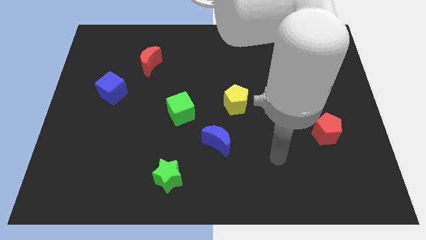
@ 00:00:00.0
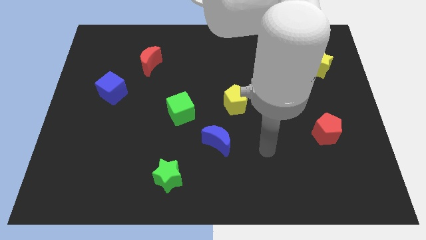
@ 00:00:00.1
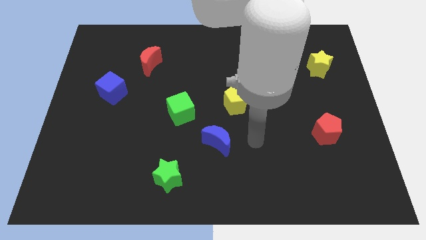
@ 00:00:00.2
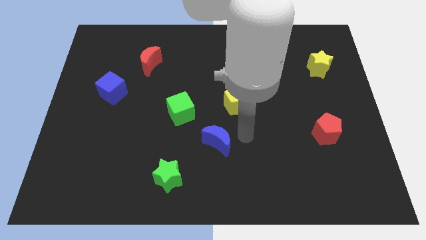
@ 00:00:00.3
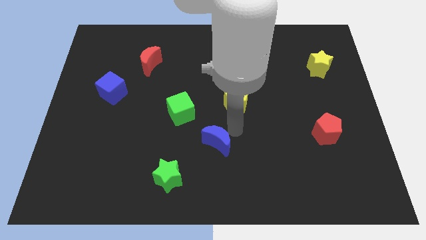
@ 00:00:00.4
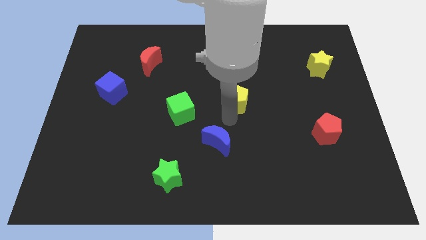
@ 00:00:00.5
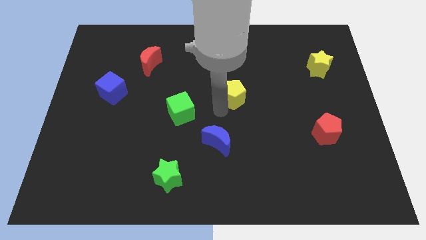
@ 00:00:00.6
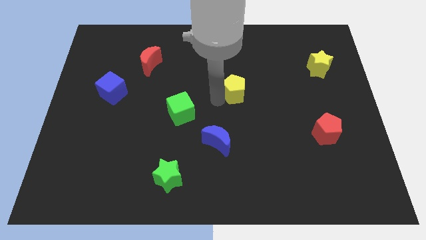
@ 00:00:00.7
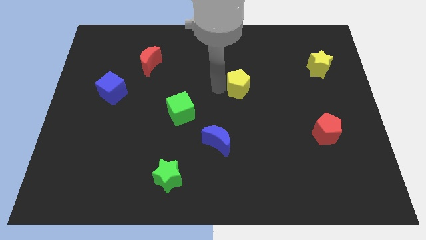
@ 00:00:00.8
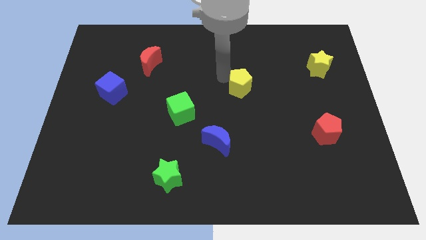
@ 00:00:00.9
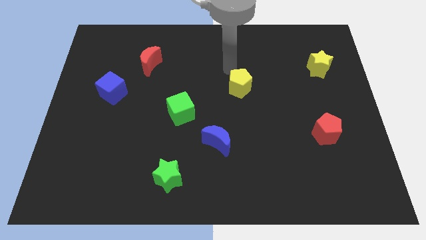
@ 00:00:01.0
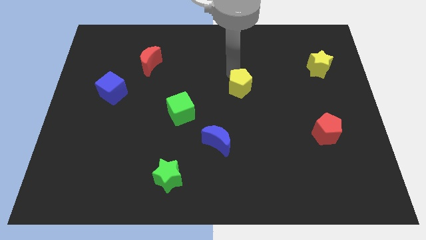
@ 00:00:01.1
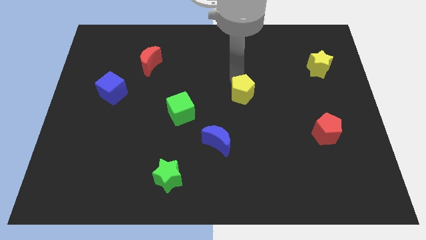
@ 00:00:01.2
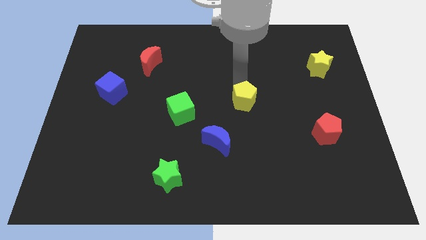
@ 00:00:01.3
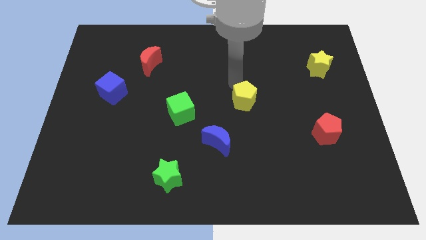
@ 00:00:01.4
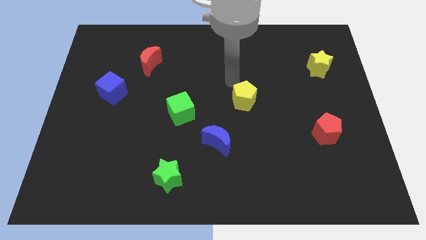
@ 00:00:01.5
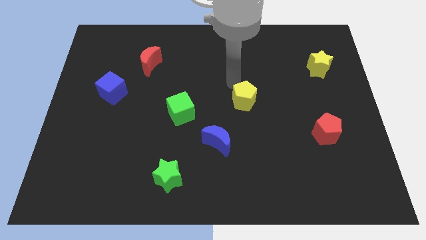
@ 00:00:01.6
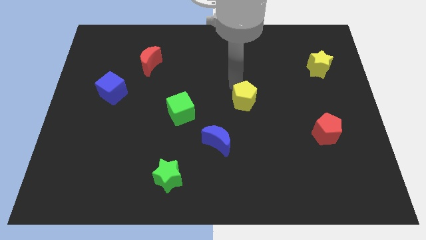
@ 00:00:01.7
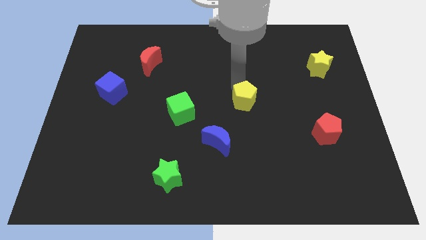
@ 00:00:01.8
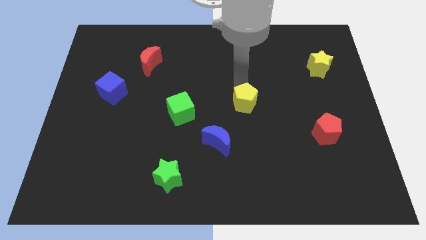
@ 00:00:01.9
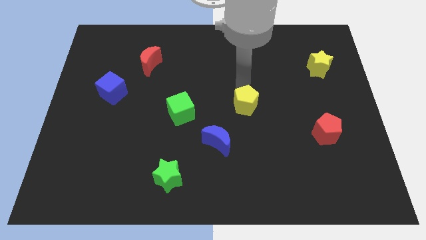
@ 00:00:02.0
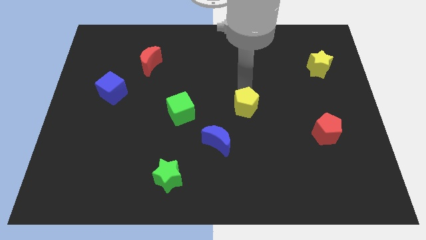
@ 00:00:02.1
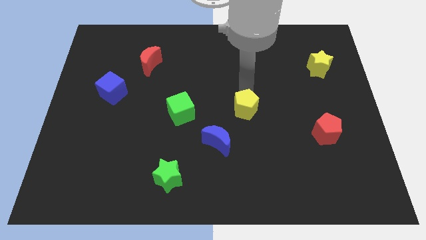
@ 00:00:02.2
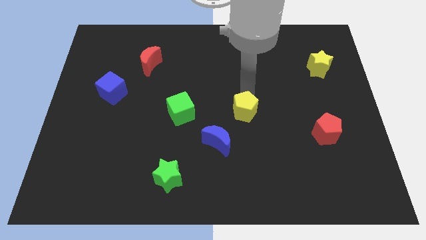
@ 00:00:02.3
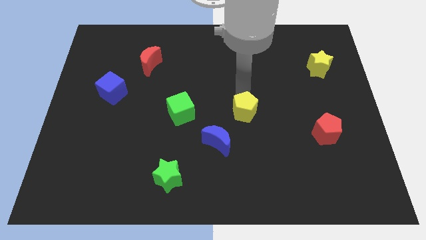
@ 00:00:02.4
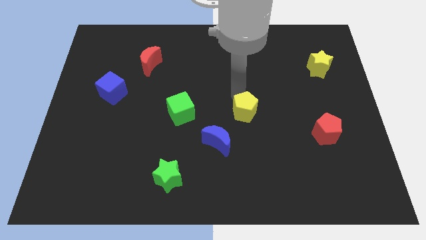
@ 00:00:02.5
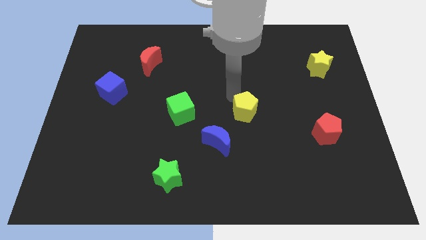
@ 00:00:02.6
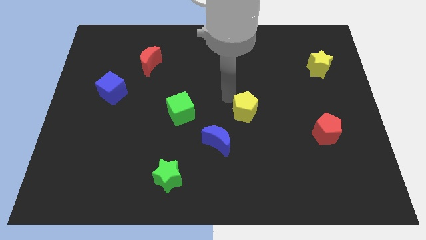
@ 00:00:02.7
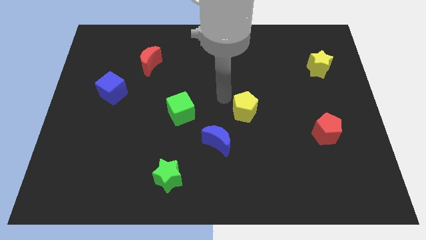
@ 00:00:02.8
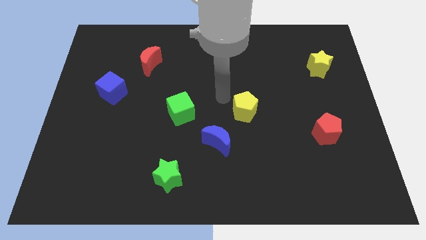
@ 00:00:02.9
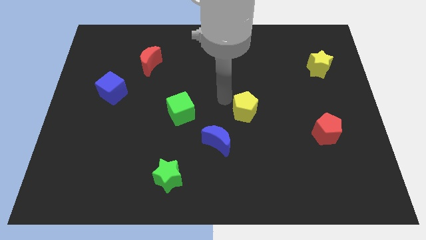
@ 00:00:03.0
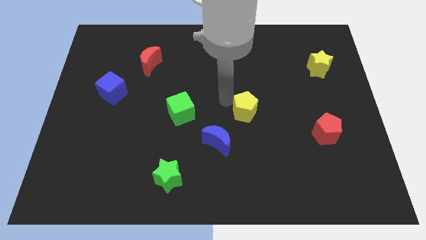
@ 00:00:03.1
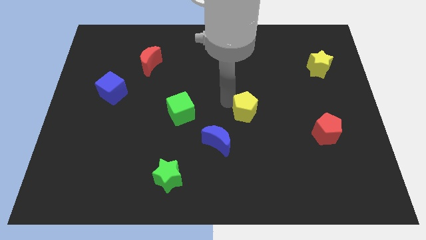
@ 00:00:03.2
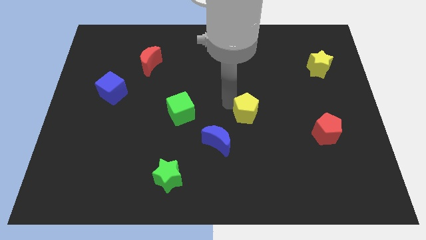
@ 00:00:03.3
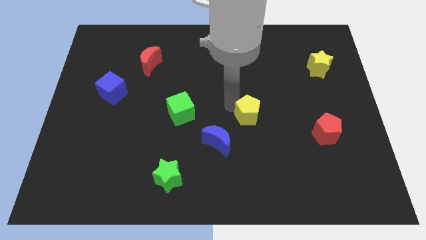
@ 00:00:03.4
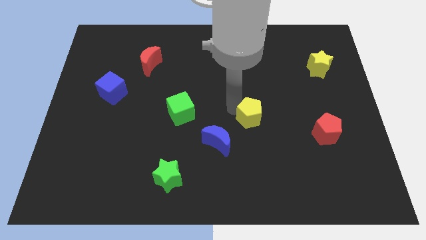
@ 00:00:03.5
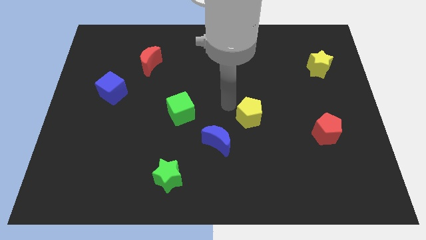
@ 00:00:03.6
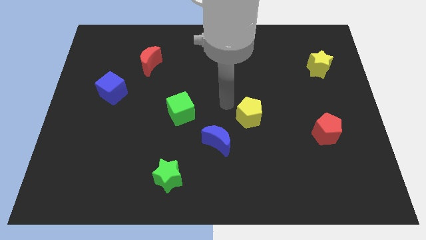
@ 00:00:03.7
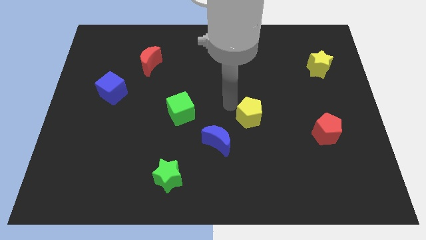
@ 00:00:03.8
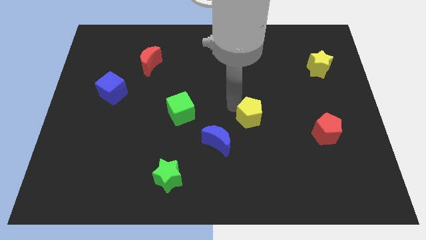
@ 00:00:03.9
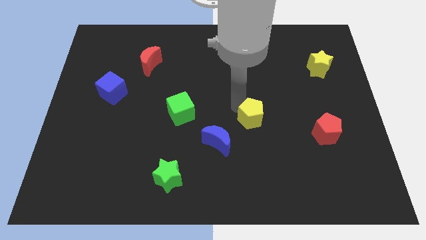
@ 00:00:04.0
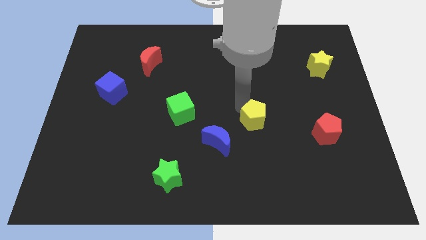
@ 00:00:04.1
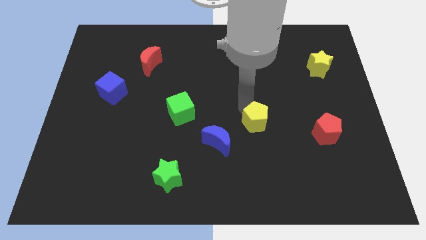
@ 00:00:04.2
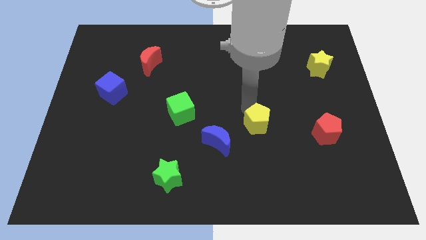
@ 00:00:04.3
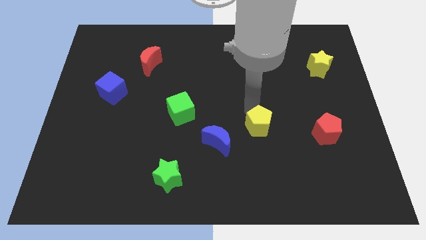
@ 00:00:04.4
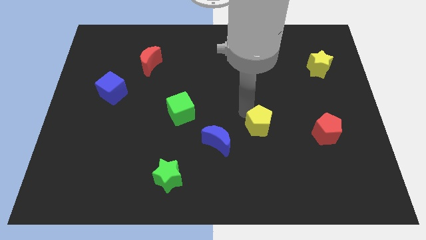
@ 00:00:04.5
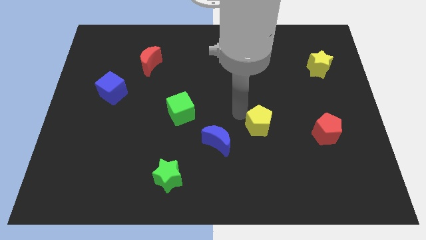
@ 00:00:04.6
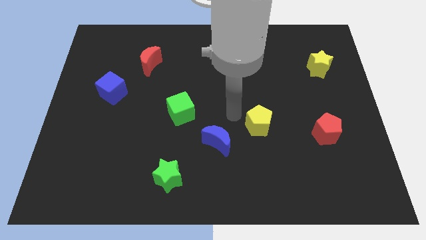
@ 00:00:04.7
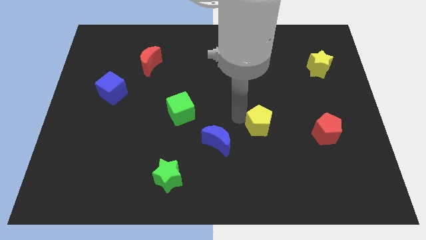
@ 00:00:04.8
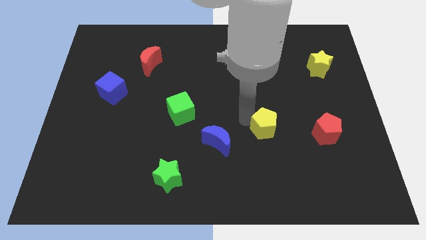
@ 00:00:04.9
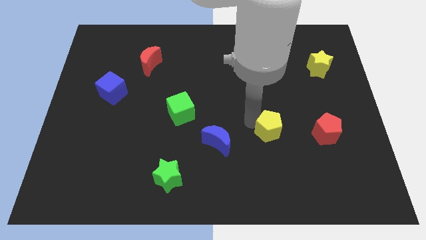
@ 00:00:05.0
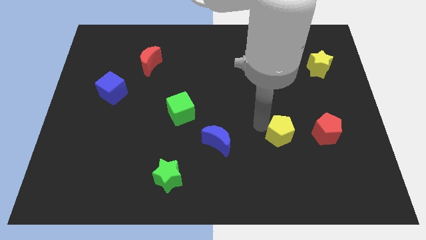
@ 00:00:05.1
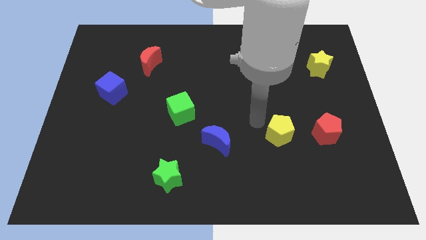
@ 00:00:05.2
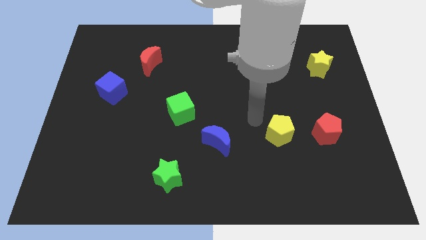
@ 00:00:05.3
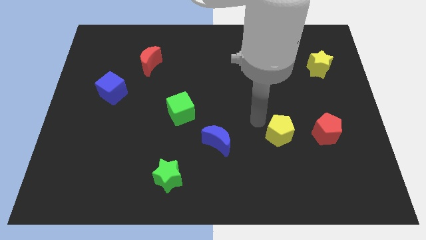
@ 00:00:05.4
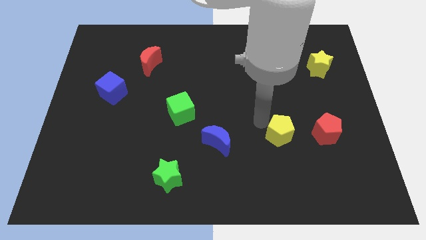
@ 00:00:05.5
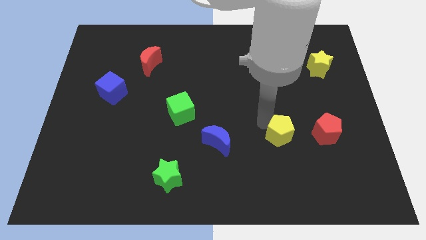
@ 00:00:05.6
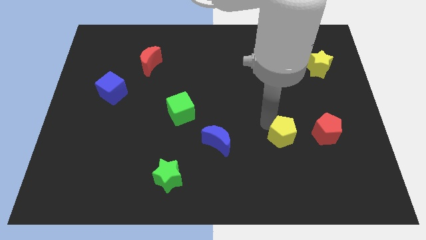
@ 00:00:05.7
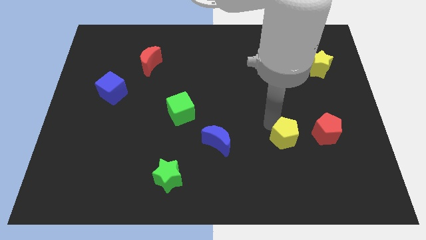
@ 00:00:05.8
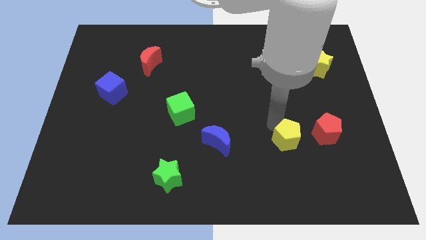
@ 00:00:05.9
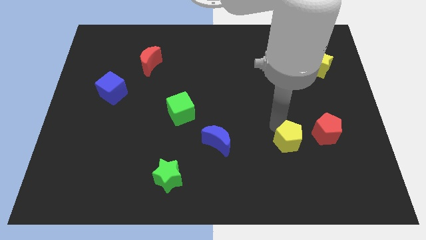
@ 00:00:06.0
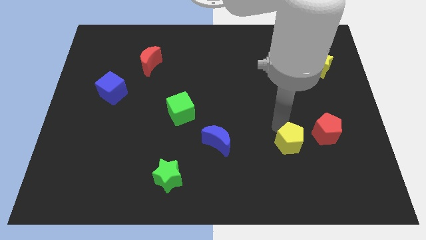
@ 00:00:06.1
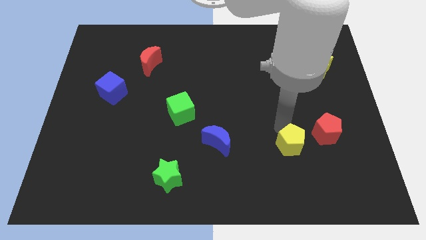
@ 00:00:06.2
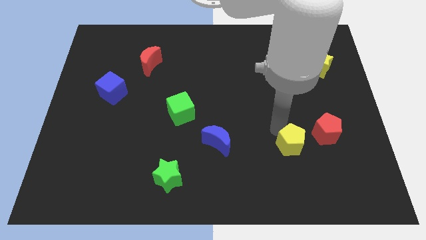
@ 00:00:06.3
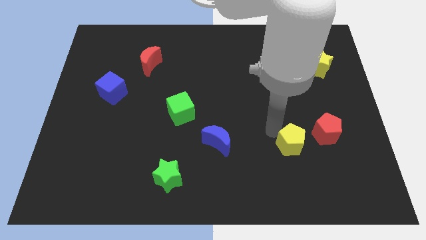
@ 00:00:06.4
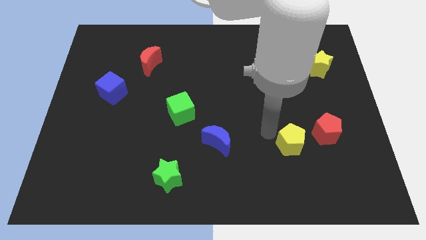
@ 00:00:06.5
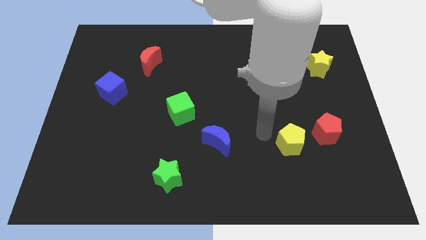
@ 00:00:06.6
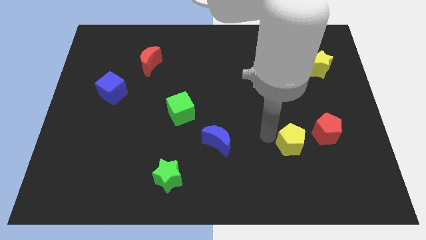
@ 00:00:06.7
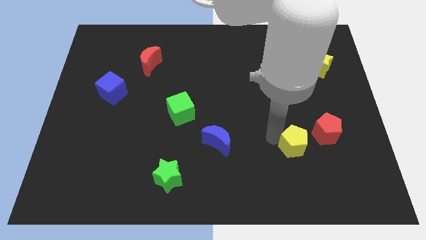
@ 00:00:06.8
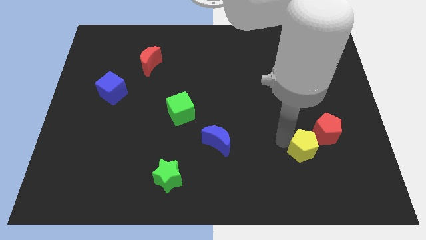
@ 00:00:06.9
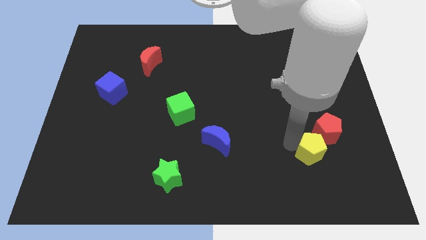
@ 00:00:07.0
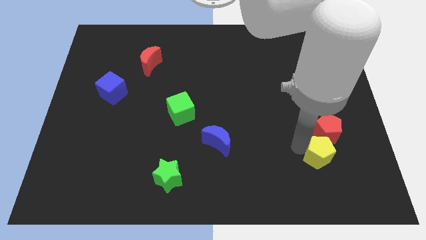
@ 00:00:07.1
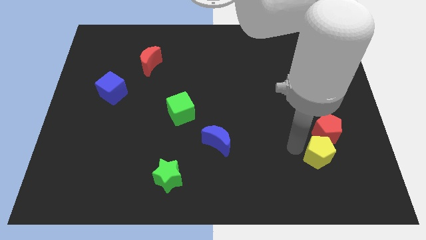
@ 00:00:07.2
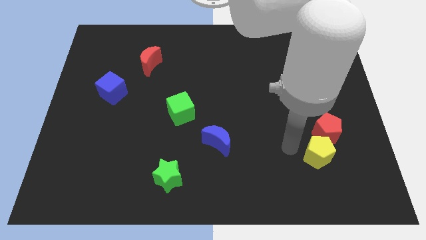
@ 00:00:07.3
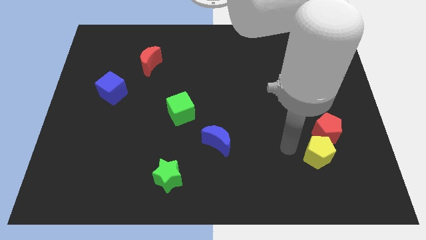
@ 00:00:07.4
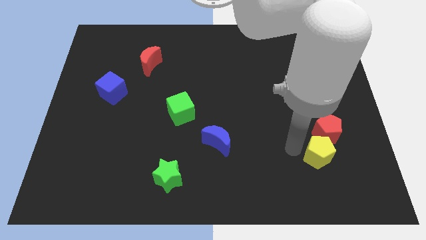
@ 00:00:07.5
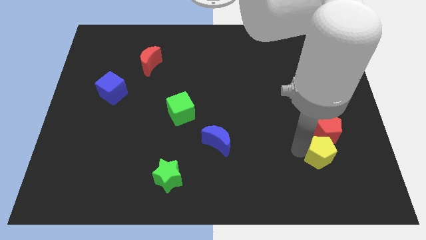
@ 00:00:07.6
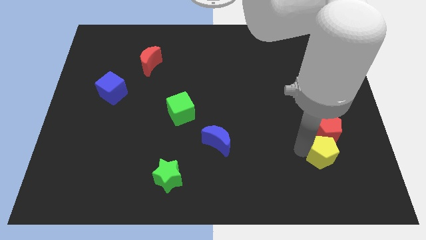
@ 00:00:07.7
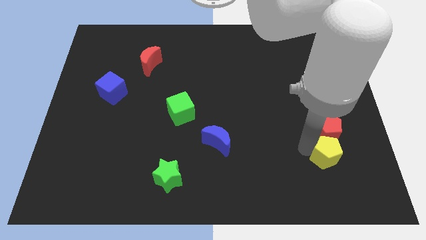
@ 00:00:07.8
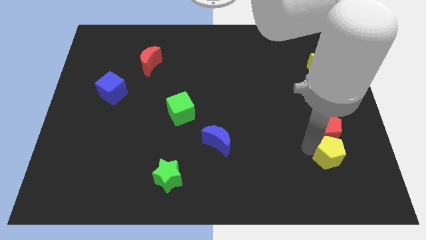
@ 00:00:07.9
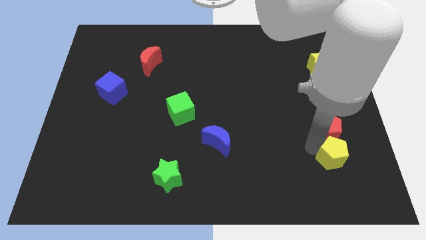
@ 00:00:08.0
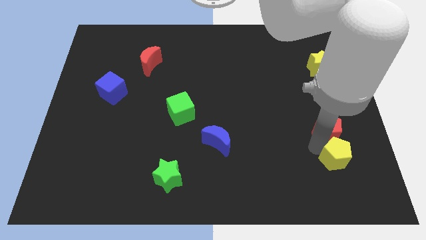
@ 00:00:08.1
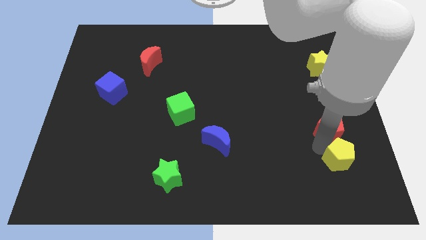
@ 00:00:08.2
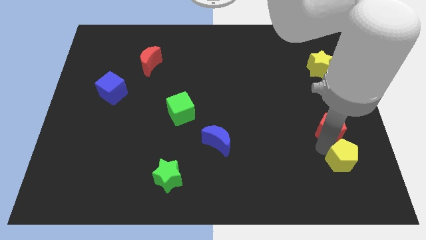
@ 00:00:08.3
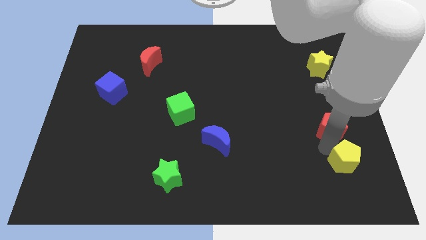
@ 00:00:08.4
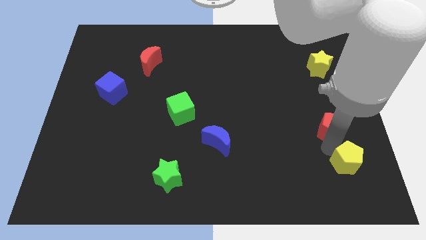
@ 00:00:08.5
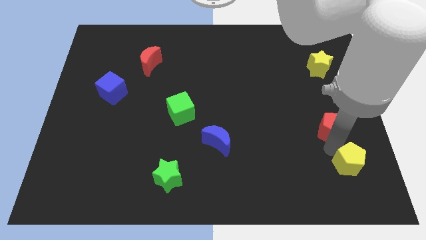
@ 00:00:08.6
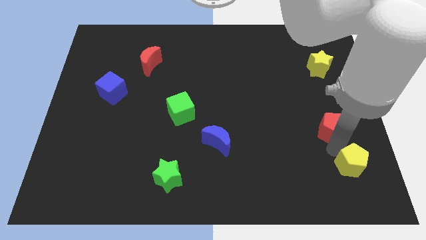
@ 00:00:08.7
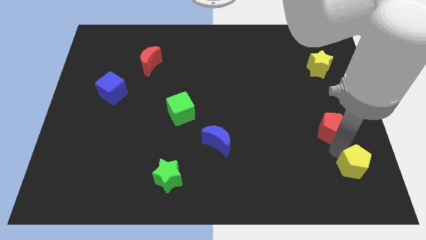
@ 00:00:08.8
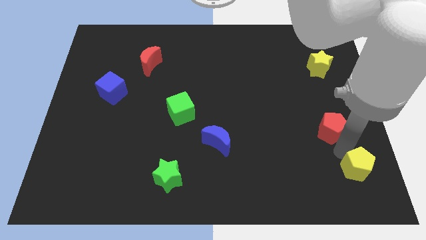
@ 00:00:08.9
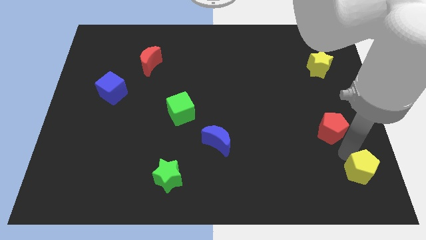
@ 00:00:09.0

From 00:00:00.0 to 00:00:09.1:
slide the yellow pentagon to the bottom right of the board
